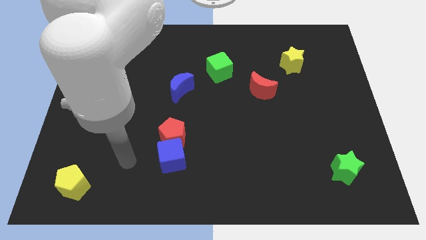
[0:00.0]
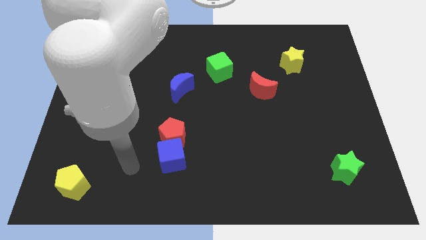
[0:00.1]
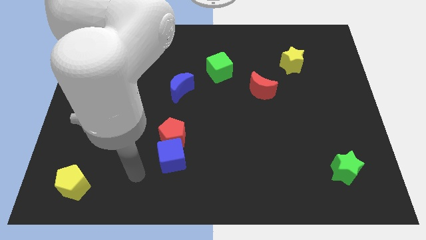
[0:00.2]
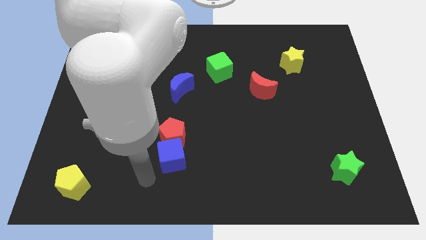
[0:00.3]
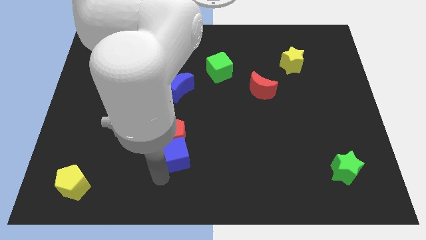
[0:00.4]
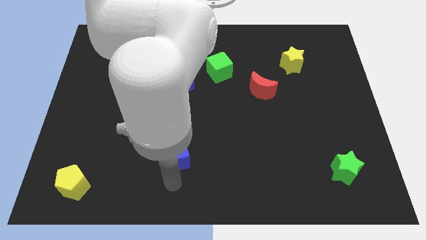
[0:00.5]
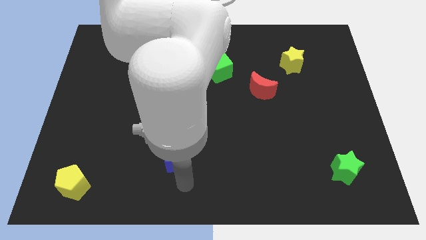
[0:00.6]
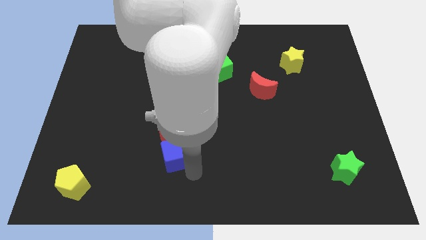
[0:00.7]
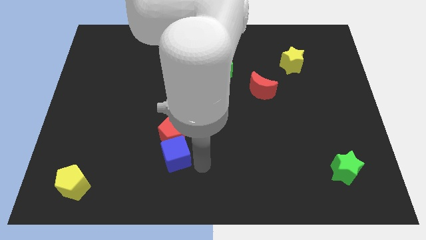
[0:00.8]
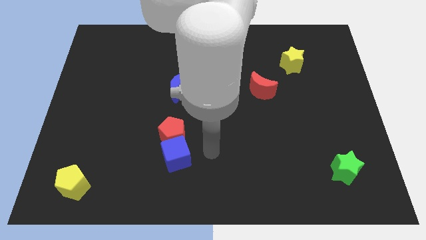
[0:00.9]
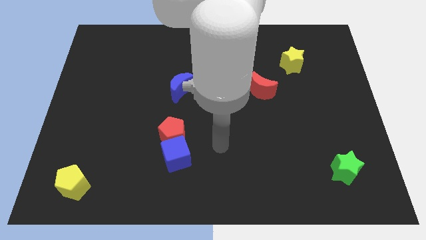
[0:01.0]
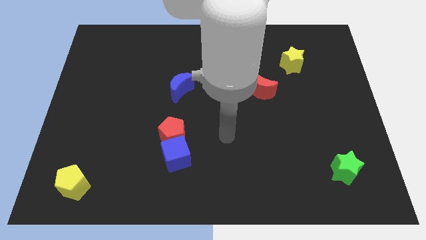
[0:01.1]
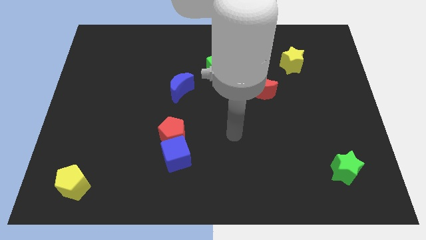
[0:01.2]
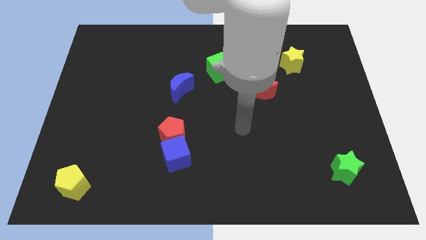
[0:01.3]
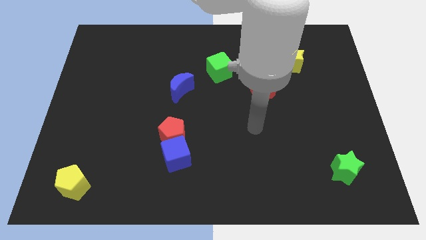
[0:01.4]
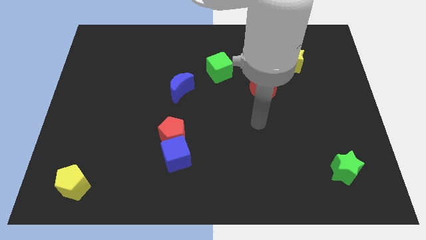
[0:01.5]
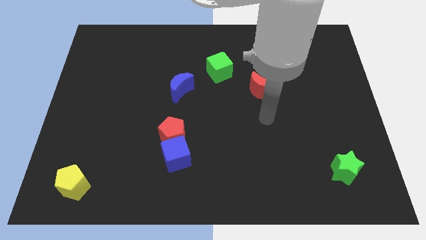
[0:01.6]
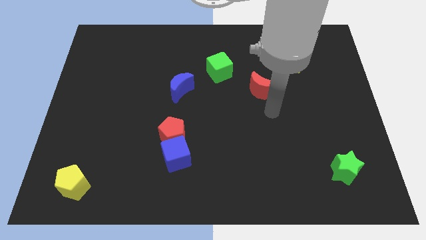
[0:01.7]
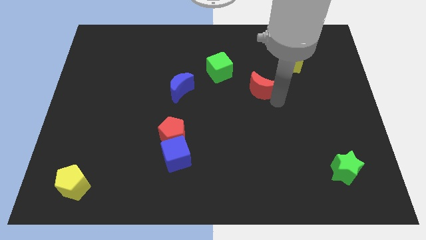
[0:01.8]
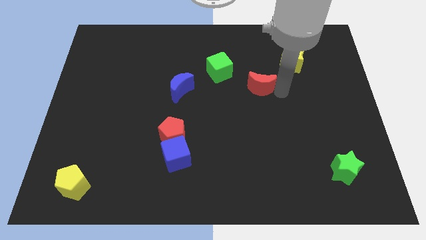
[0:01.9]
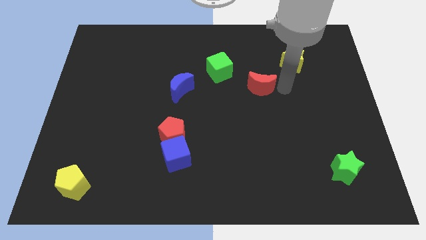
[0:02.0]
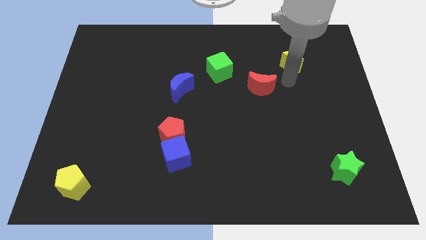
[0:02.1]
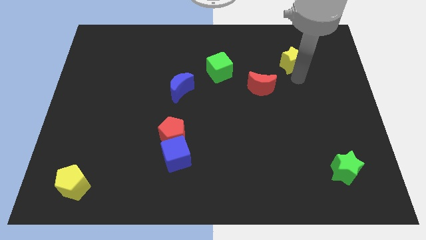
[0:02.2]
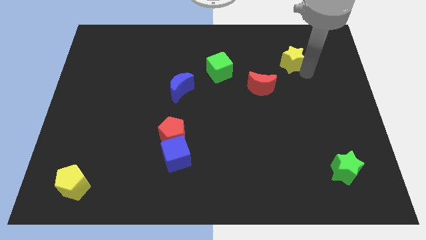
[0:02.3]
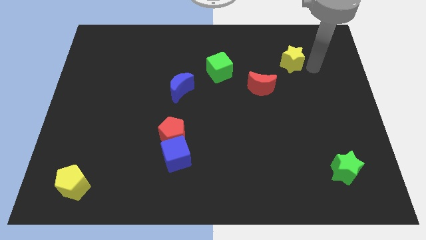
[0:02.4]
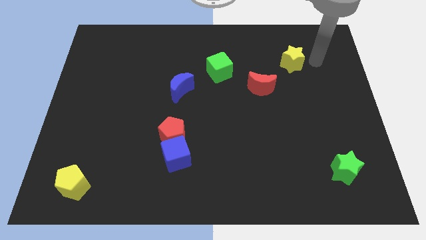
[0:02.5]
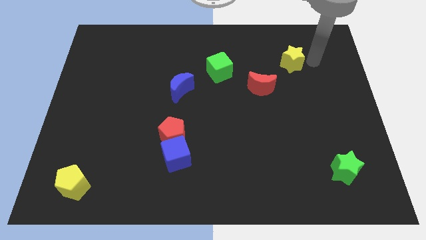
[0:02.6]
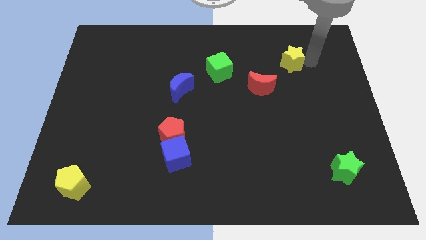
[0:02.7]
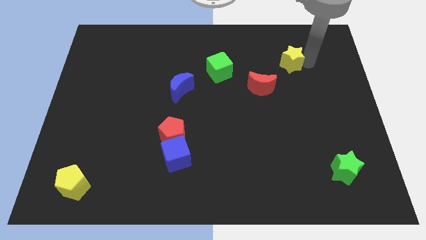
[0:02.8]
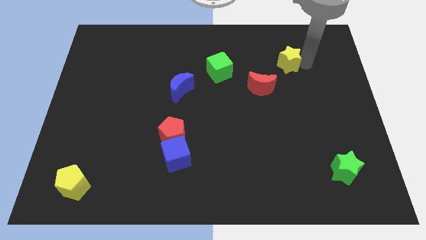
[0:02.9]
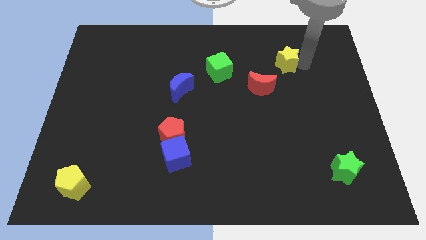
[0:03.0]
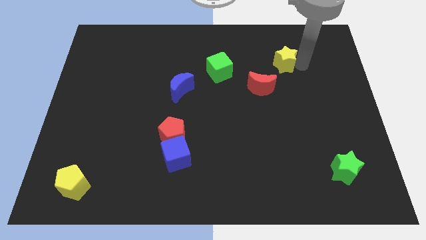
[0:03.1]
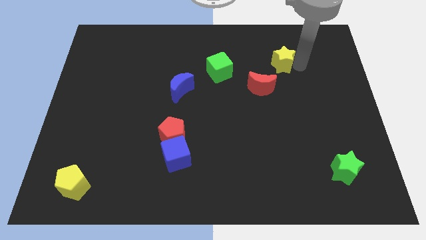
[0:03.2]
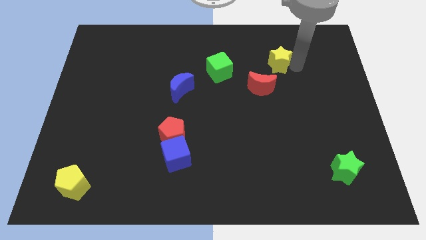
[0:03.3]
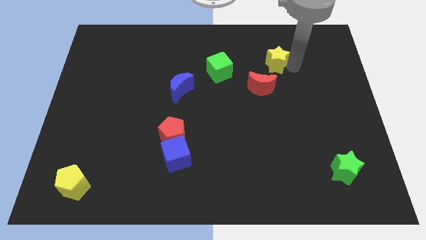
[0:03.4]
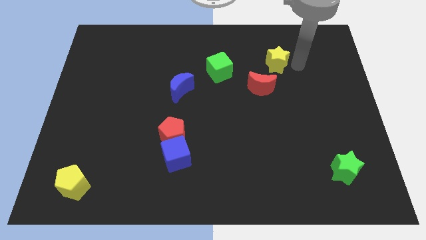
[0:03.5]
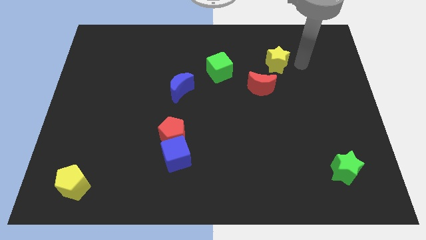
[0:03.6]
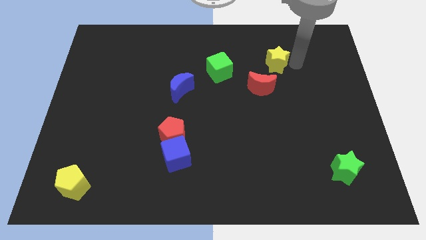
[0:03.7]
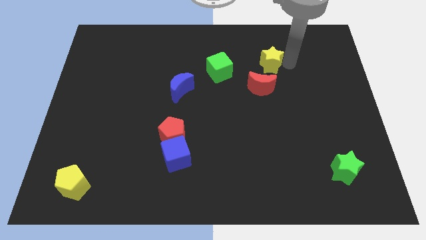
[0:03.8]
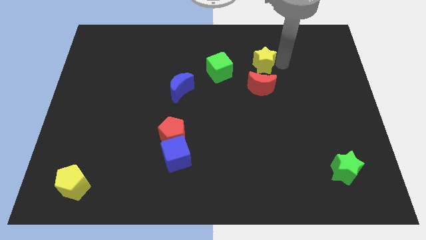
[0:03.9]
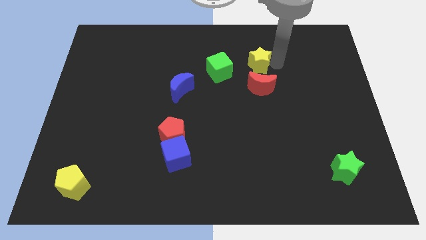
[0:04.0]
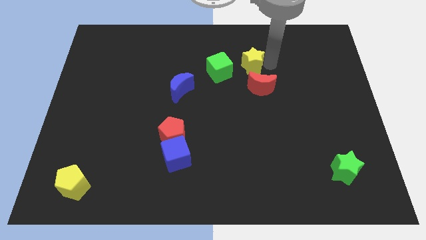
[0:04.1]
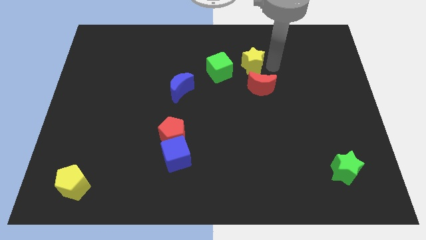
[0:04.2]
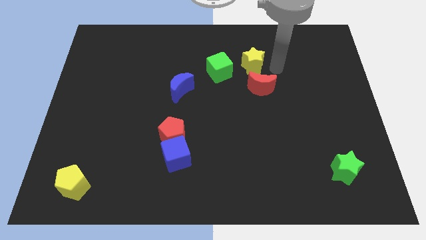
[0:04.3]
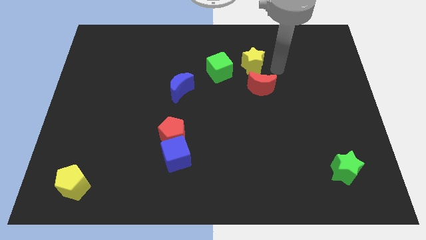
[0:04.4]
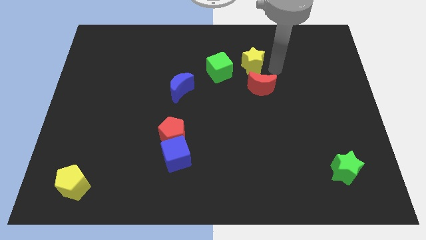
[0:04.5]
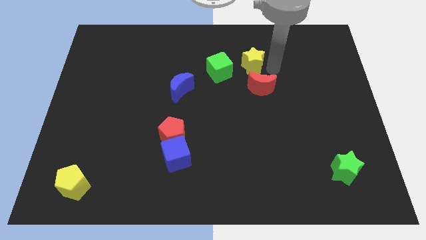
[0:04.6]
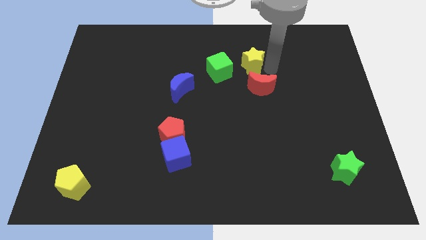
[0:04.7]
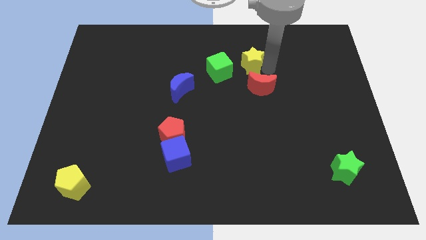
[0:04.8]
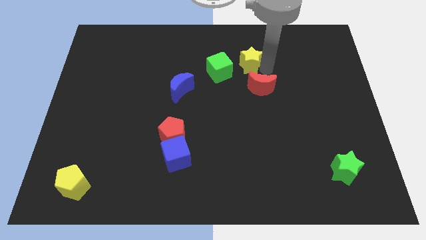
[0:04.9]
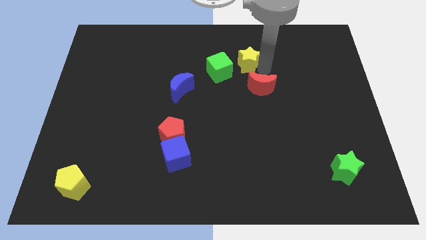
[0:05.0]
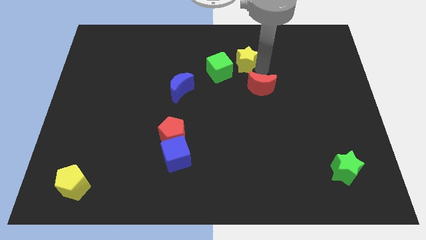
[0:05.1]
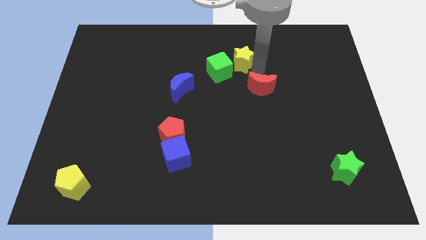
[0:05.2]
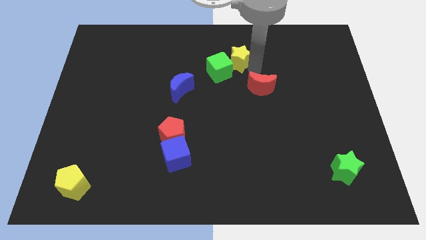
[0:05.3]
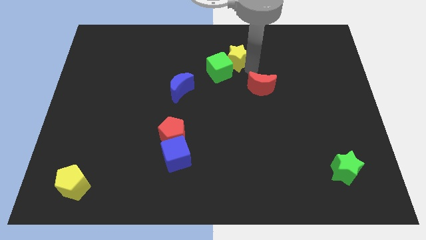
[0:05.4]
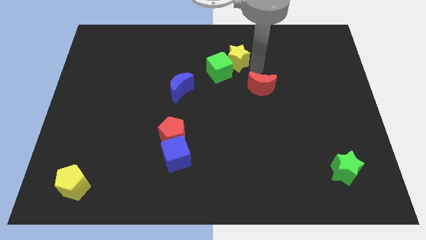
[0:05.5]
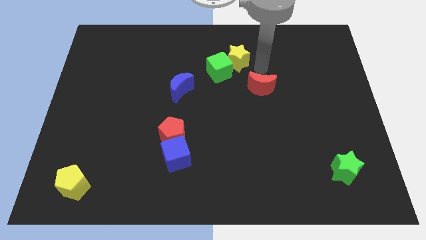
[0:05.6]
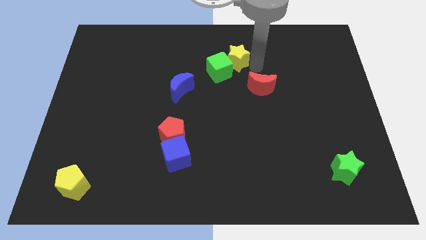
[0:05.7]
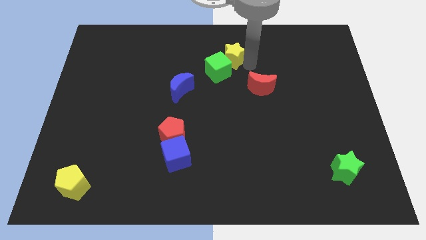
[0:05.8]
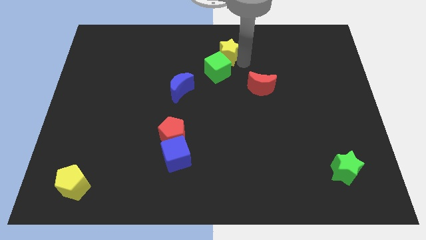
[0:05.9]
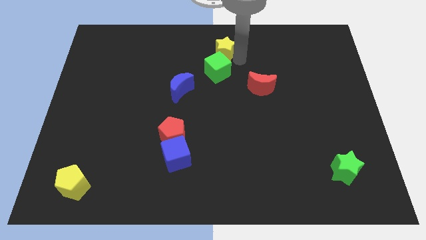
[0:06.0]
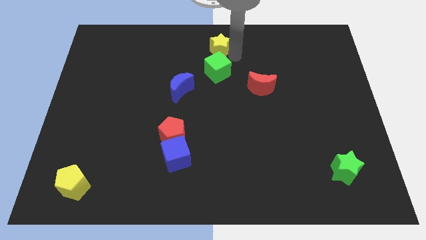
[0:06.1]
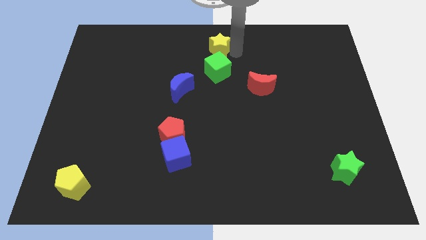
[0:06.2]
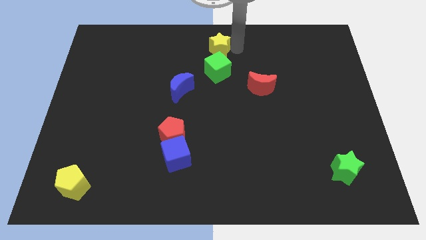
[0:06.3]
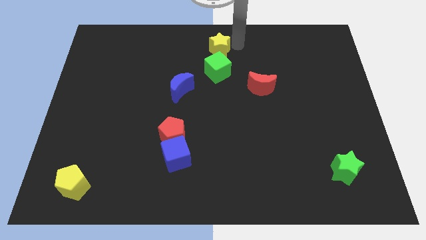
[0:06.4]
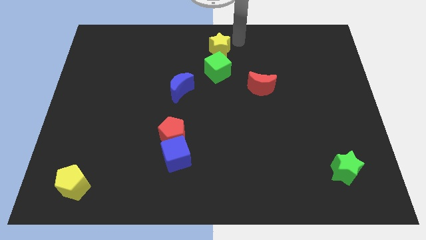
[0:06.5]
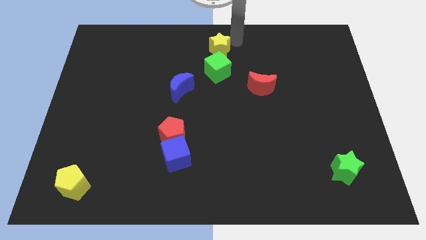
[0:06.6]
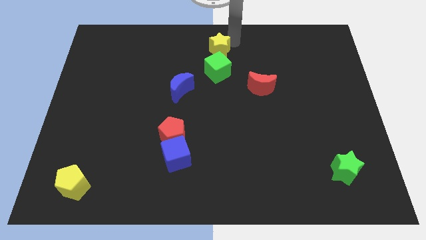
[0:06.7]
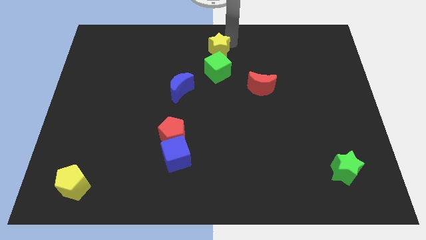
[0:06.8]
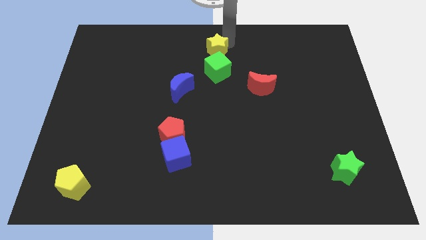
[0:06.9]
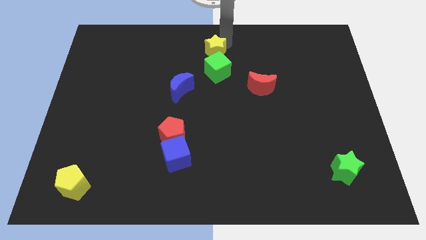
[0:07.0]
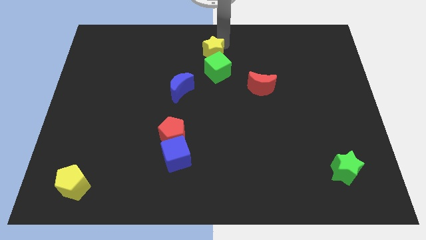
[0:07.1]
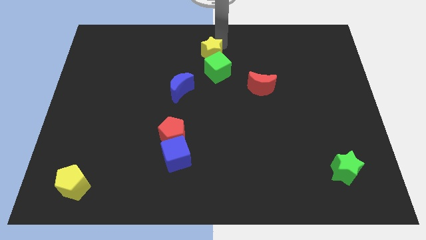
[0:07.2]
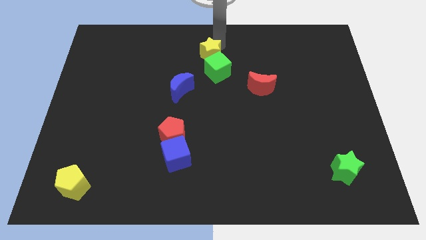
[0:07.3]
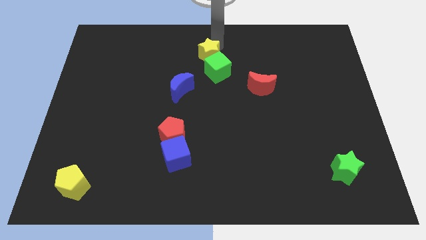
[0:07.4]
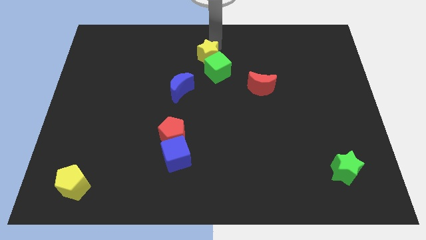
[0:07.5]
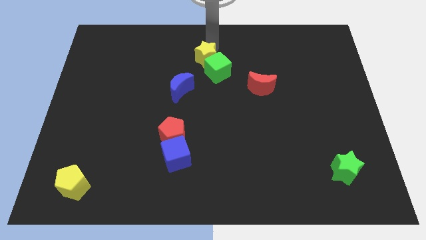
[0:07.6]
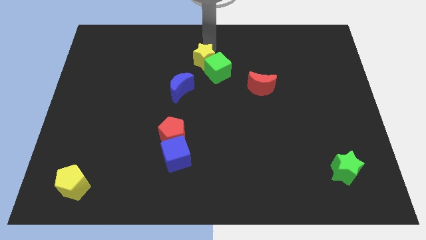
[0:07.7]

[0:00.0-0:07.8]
move the yellow star to the left side of the green cube

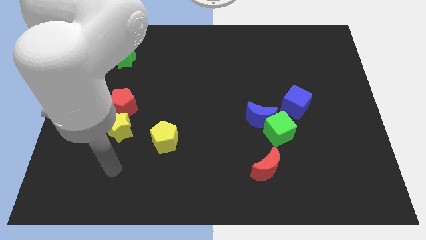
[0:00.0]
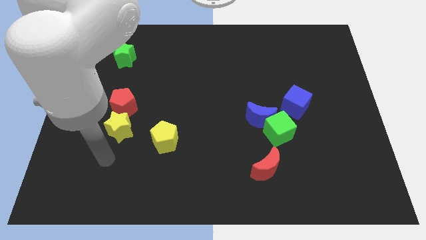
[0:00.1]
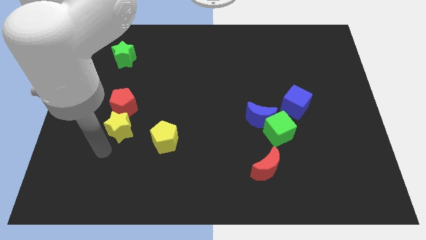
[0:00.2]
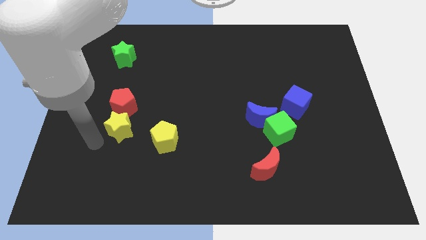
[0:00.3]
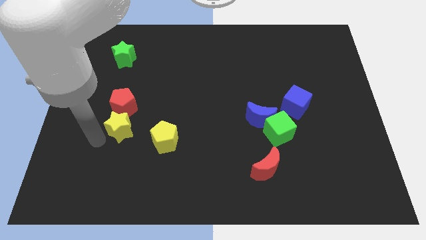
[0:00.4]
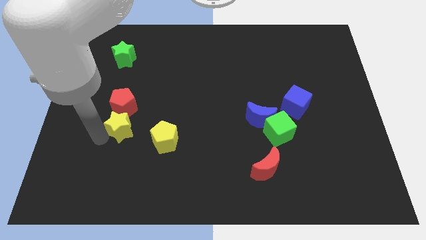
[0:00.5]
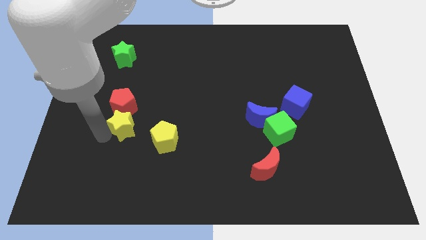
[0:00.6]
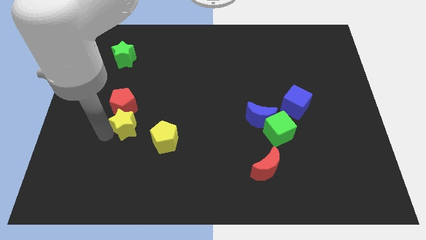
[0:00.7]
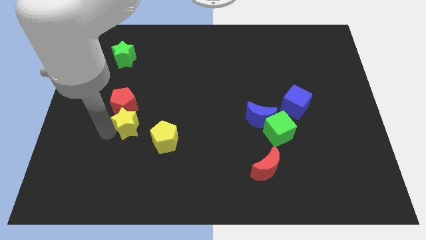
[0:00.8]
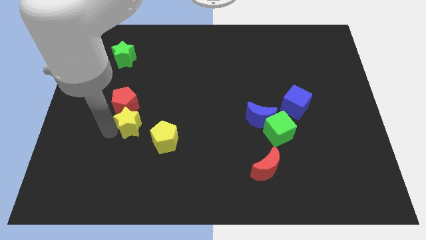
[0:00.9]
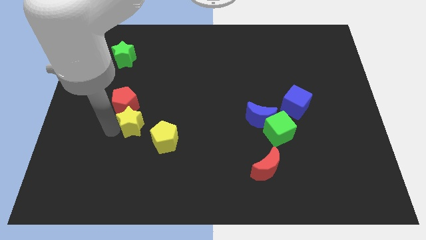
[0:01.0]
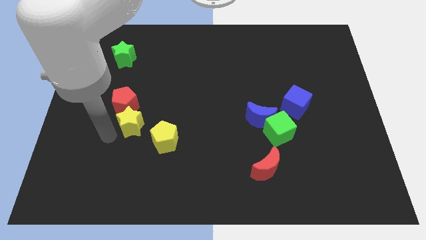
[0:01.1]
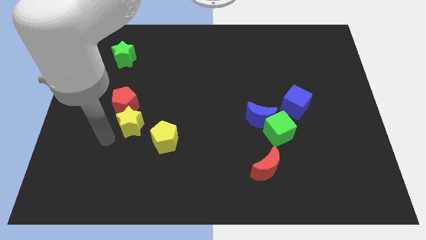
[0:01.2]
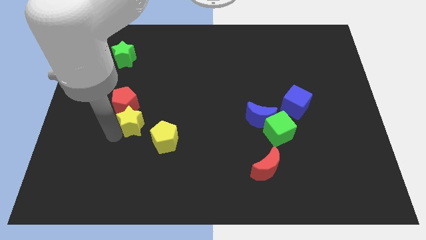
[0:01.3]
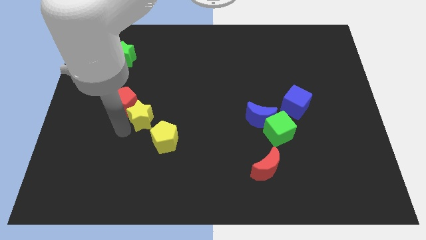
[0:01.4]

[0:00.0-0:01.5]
move the yellow star right of the red pentagon
